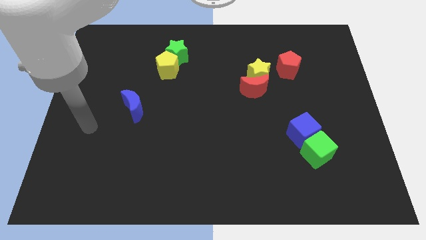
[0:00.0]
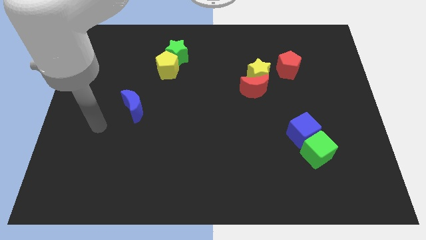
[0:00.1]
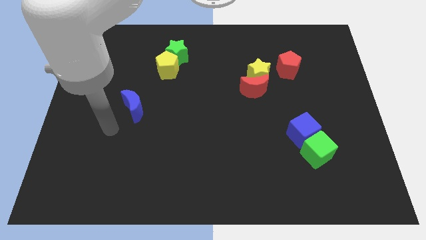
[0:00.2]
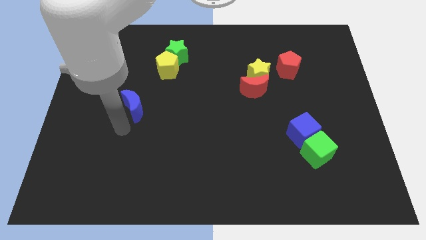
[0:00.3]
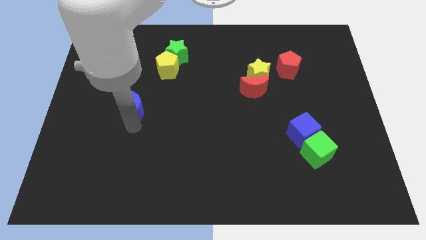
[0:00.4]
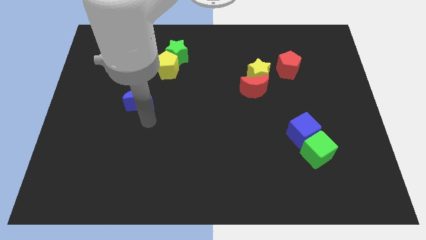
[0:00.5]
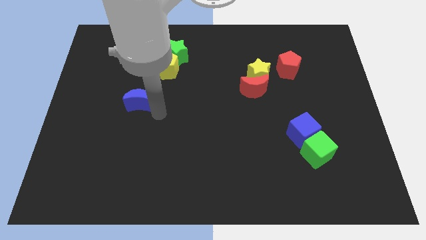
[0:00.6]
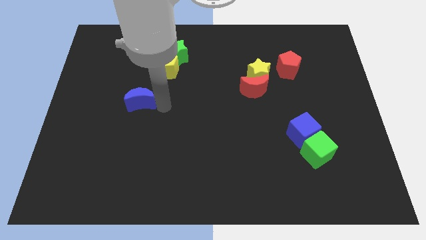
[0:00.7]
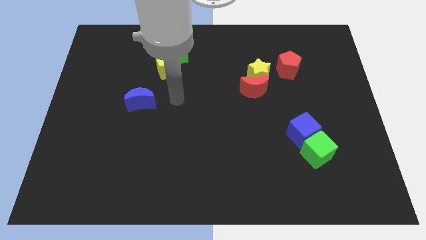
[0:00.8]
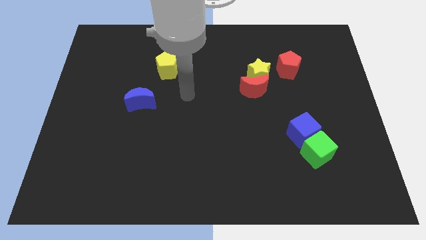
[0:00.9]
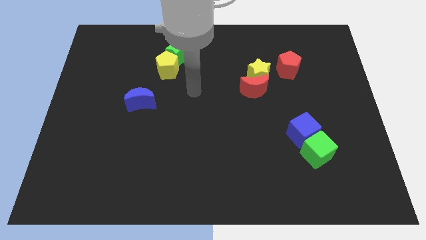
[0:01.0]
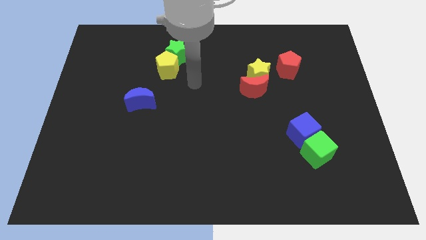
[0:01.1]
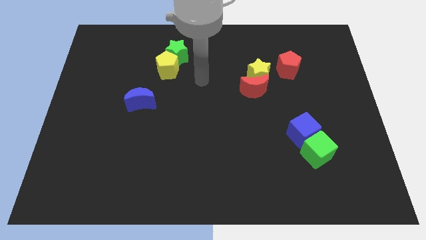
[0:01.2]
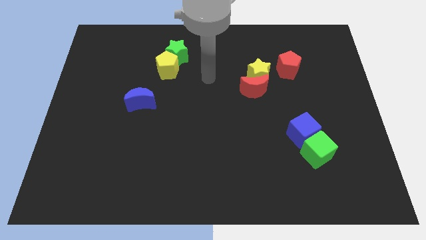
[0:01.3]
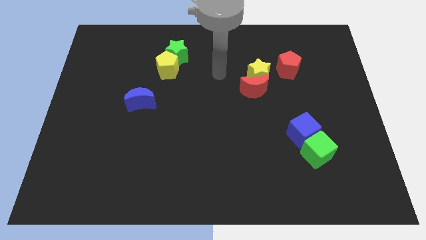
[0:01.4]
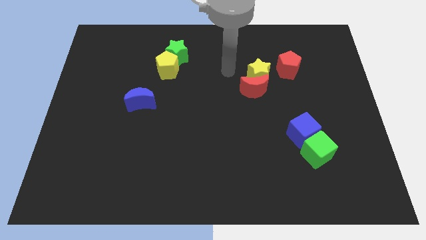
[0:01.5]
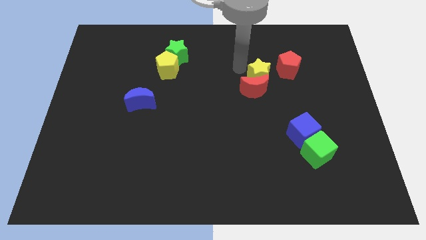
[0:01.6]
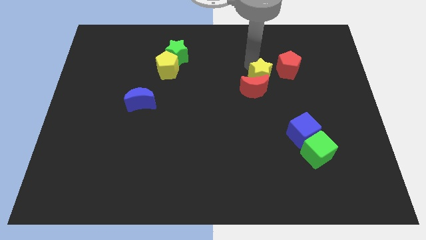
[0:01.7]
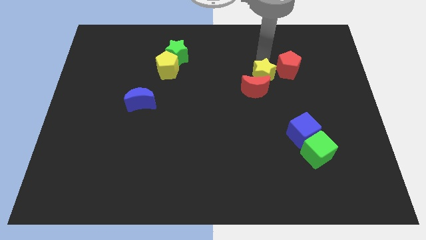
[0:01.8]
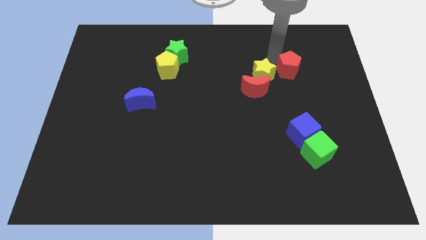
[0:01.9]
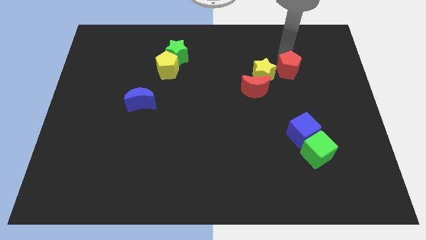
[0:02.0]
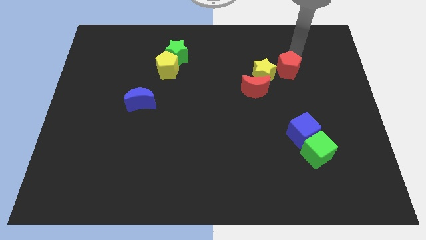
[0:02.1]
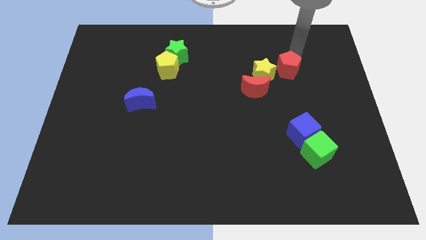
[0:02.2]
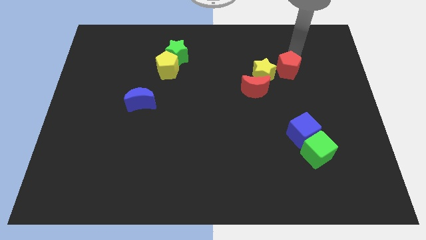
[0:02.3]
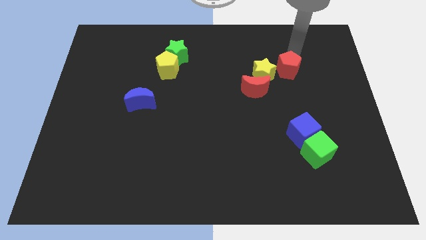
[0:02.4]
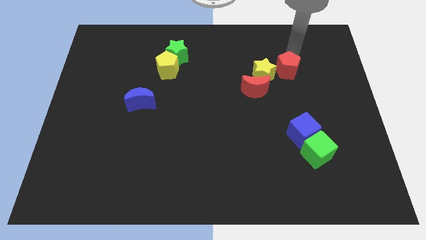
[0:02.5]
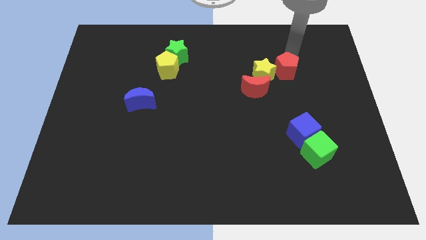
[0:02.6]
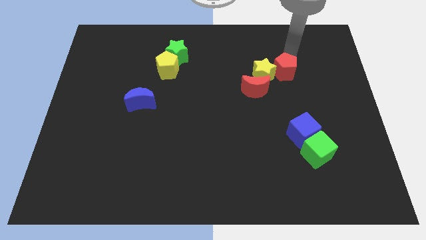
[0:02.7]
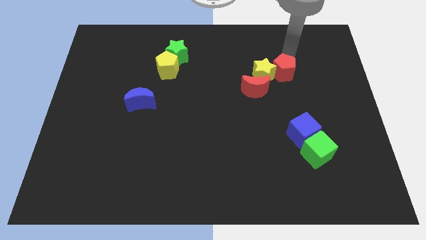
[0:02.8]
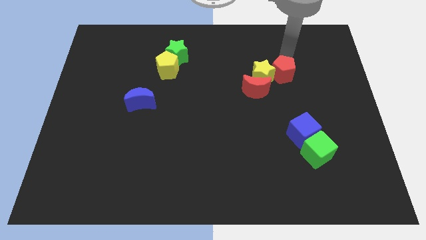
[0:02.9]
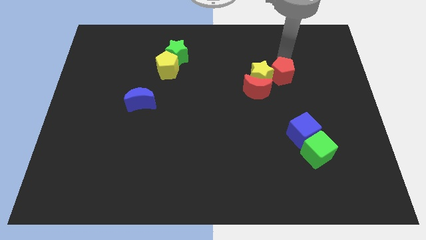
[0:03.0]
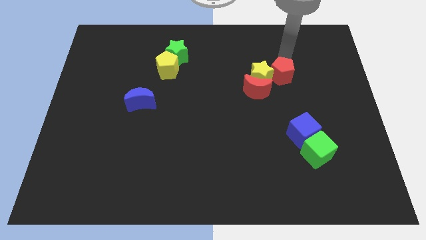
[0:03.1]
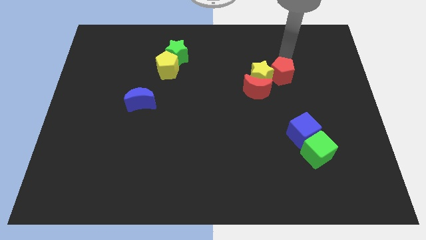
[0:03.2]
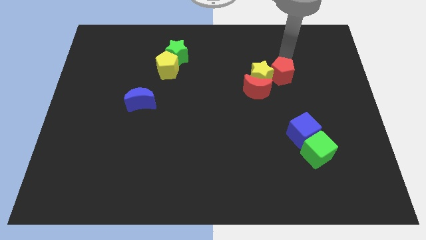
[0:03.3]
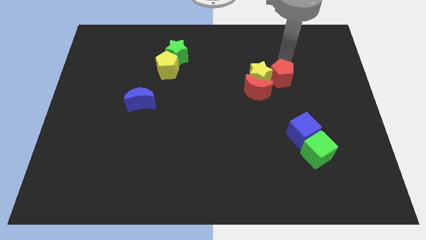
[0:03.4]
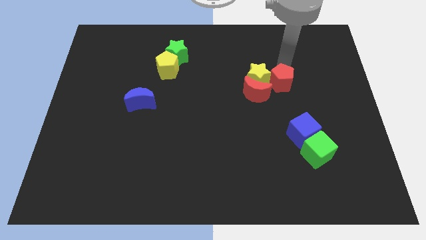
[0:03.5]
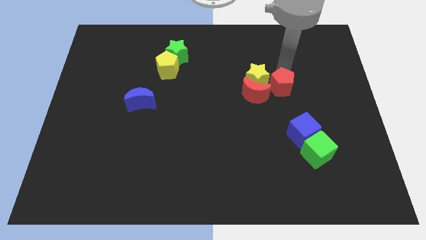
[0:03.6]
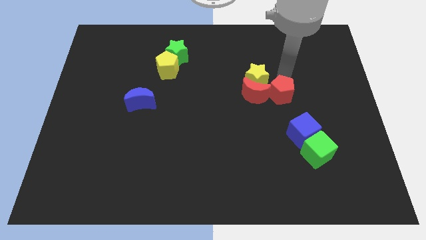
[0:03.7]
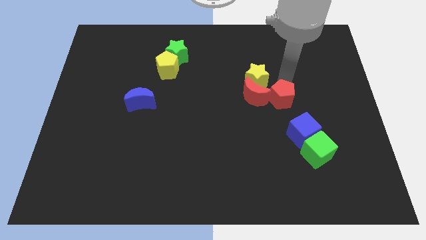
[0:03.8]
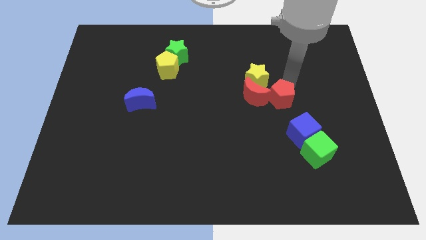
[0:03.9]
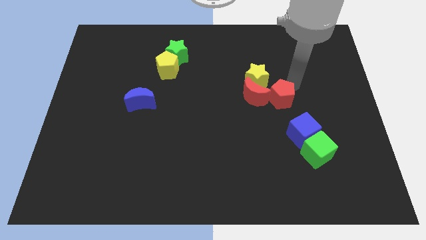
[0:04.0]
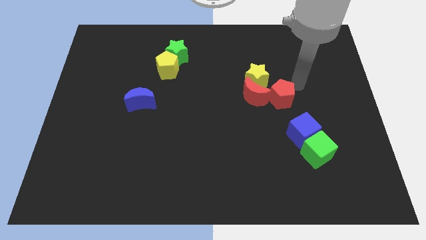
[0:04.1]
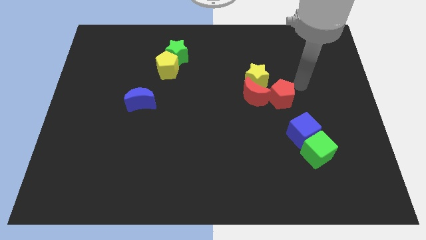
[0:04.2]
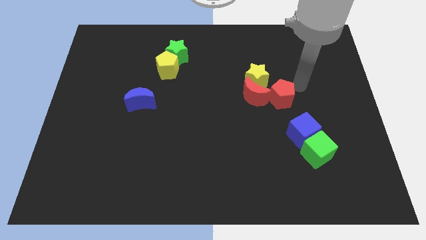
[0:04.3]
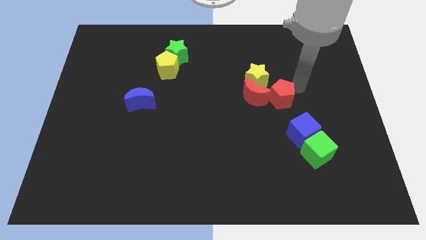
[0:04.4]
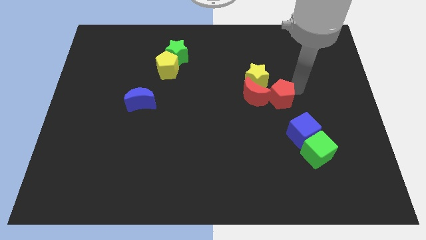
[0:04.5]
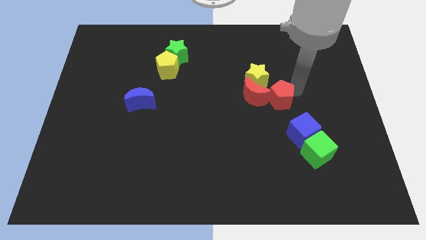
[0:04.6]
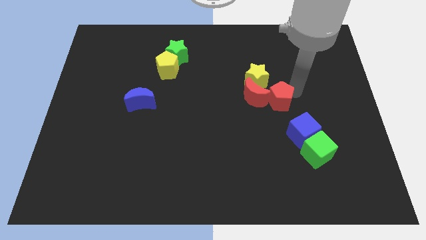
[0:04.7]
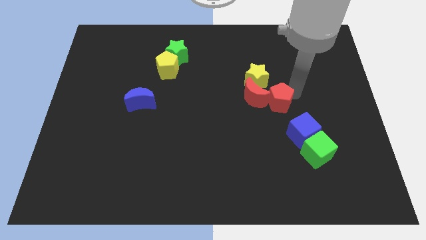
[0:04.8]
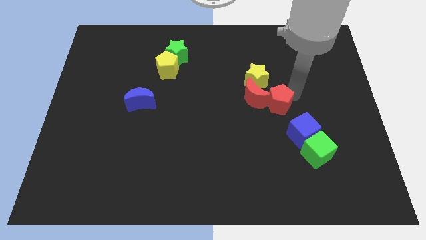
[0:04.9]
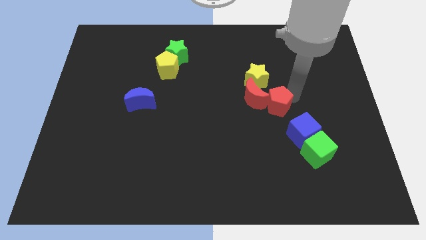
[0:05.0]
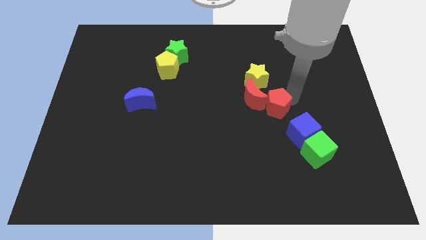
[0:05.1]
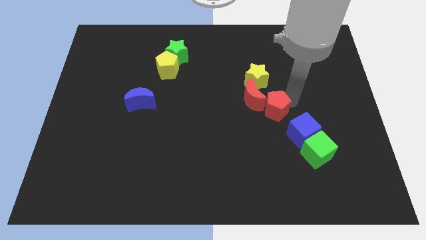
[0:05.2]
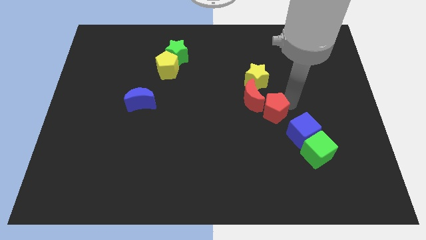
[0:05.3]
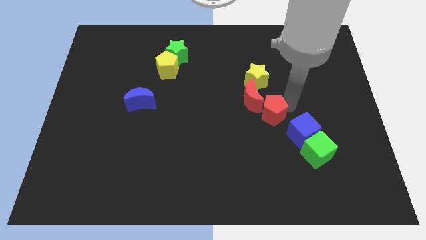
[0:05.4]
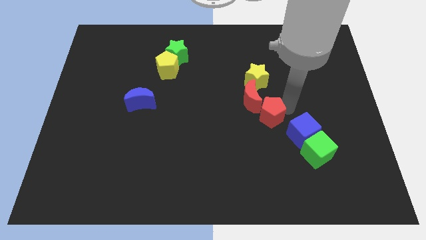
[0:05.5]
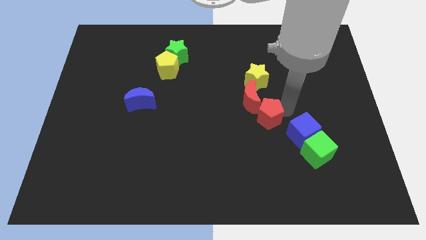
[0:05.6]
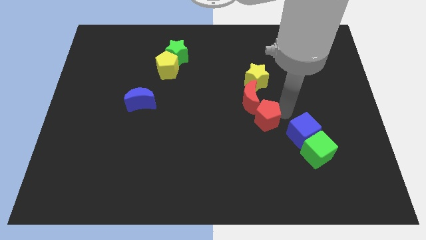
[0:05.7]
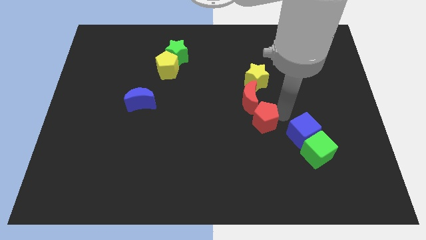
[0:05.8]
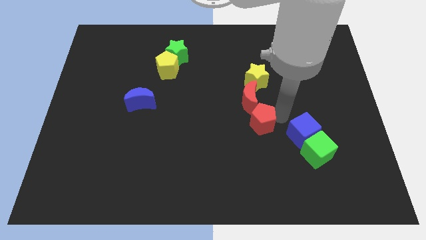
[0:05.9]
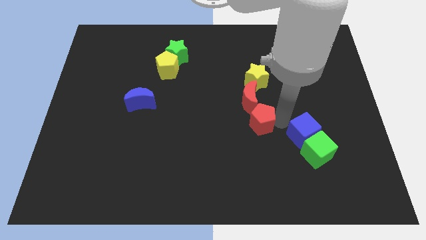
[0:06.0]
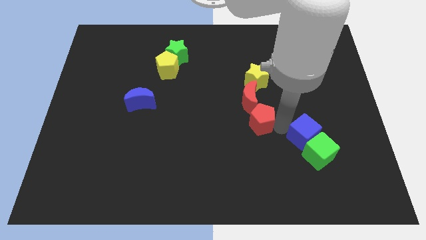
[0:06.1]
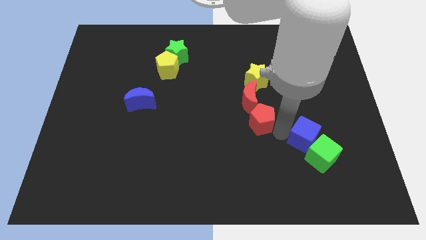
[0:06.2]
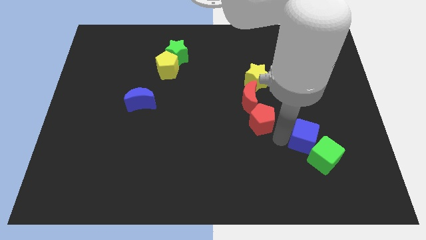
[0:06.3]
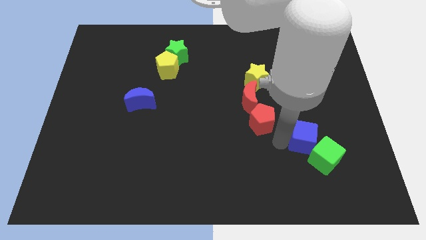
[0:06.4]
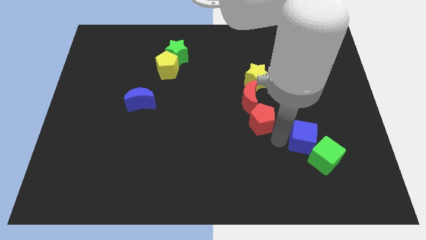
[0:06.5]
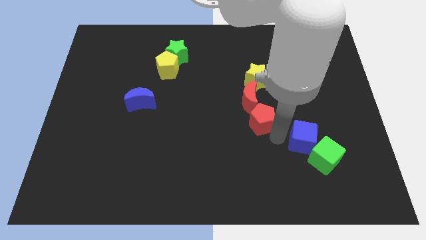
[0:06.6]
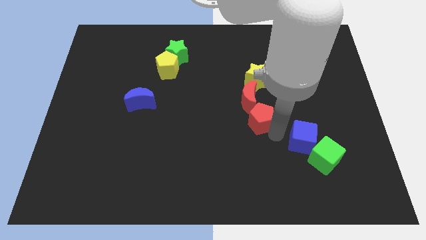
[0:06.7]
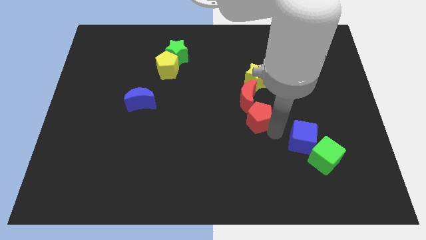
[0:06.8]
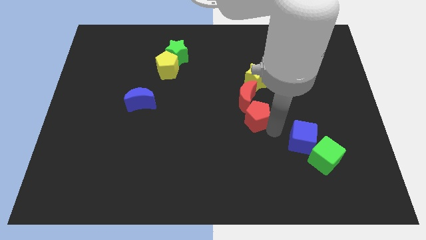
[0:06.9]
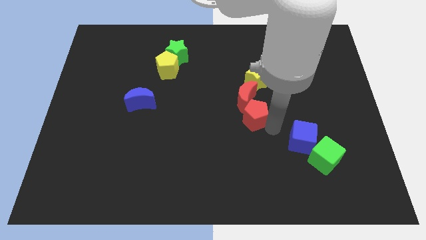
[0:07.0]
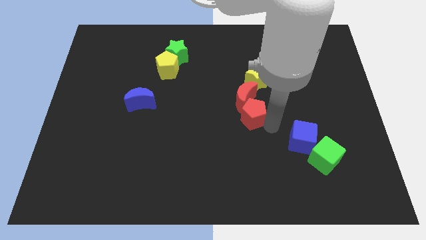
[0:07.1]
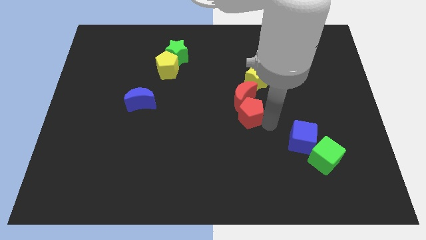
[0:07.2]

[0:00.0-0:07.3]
move the red pentagon to the bottom left of the red moon
